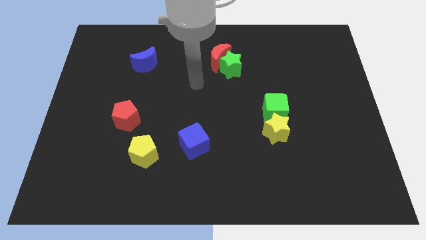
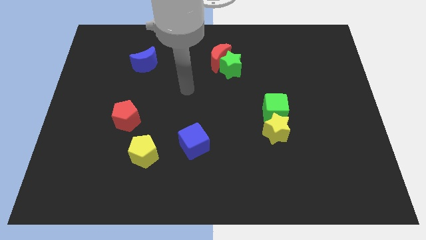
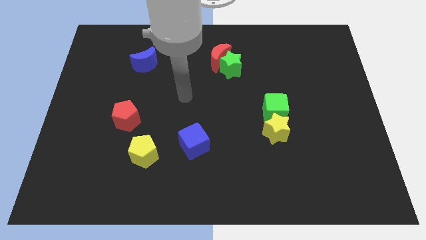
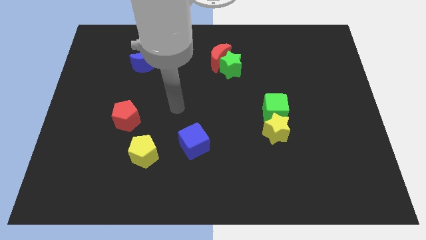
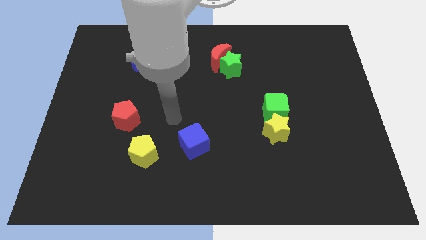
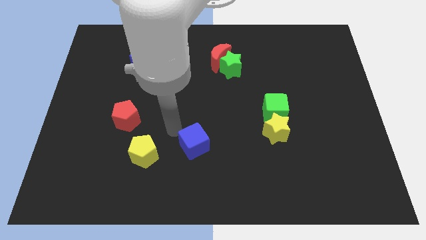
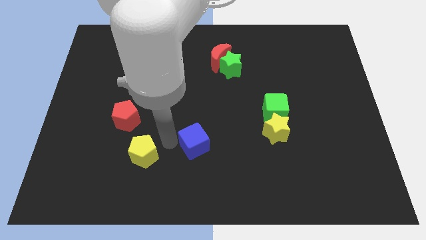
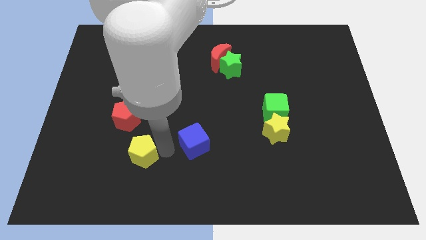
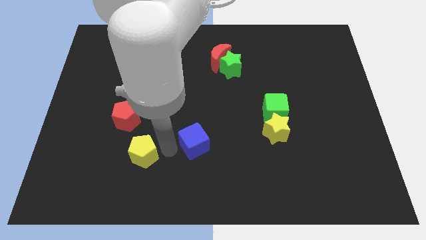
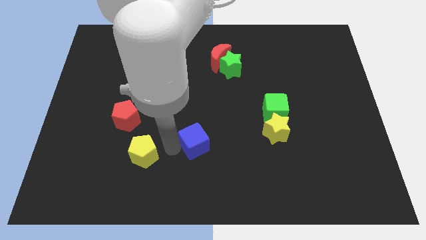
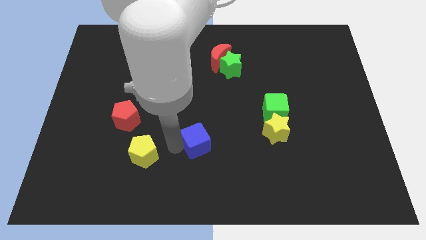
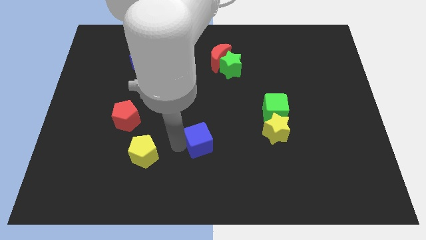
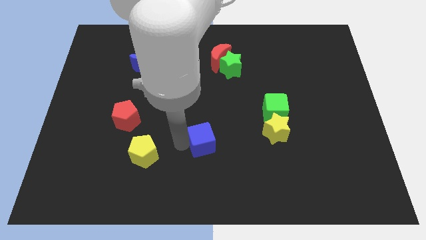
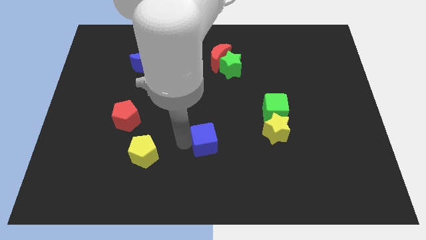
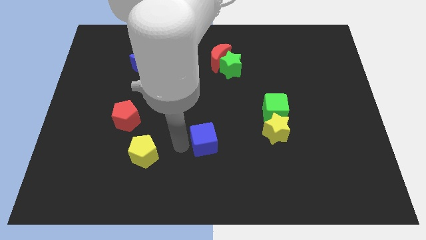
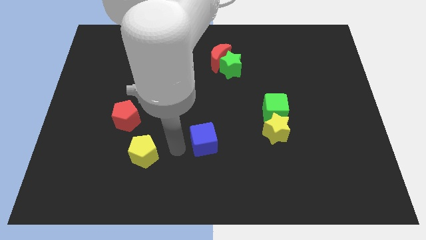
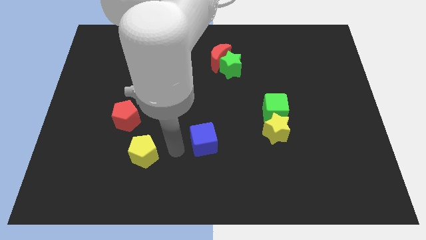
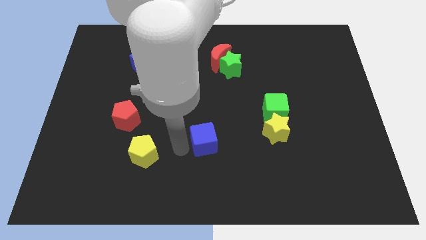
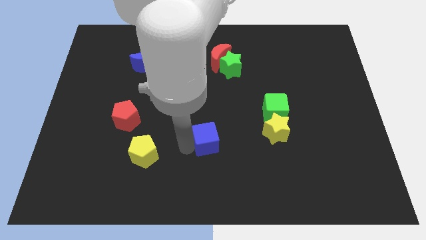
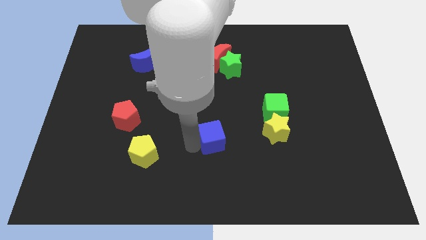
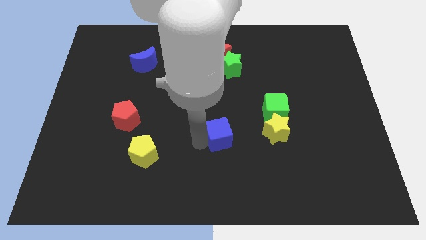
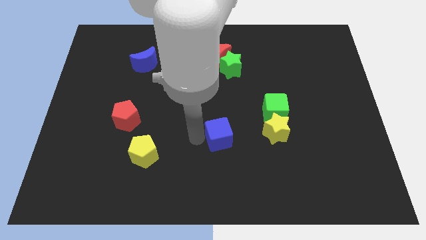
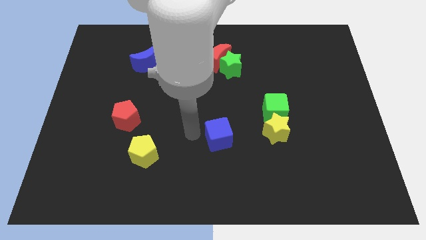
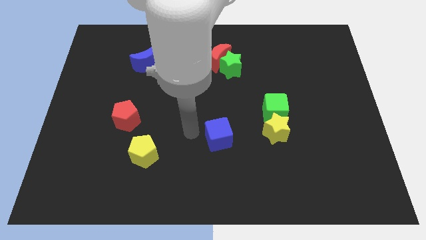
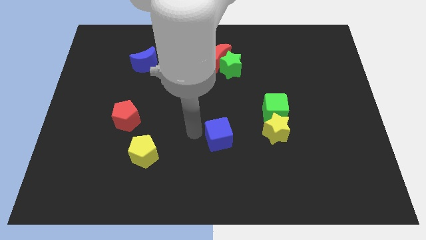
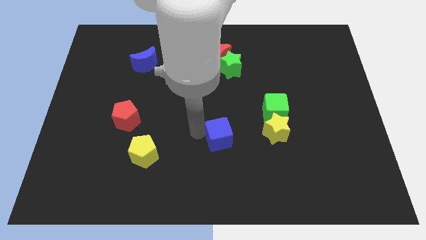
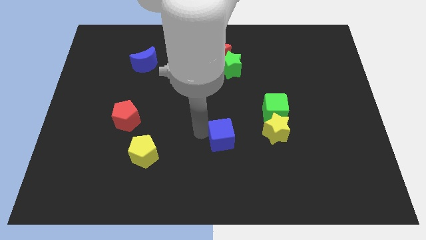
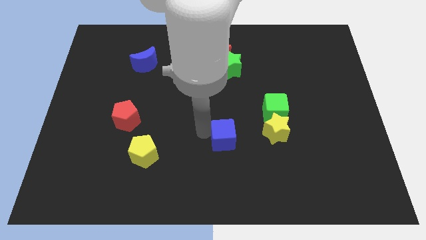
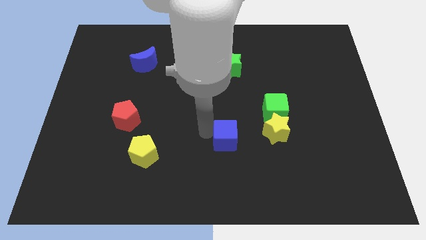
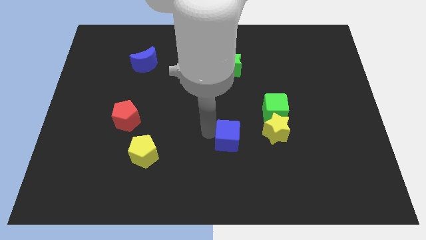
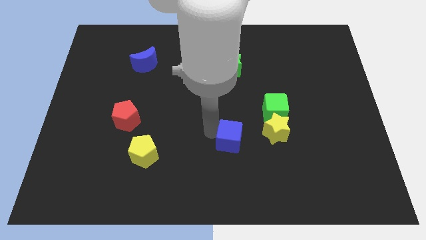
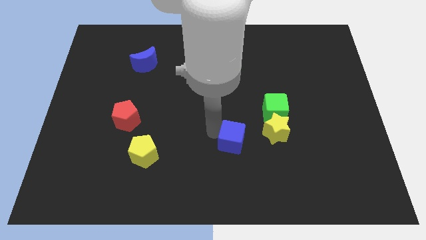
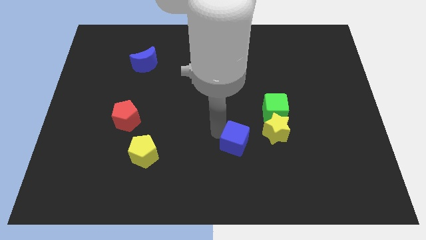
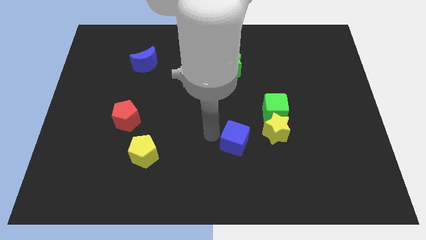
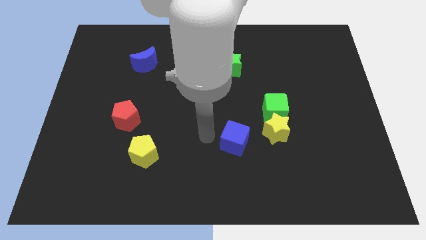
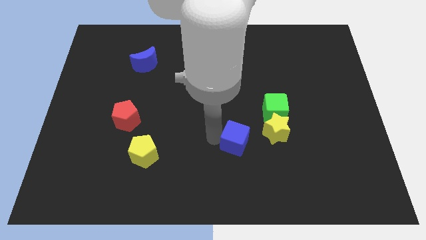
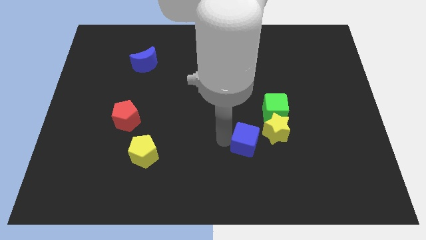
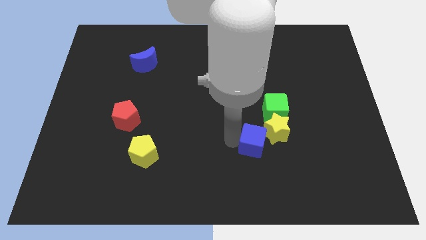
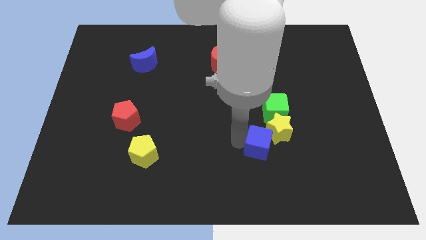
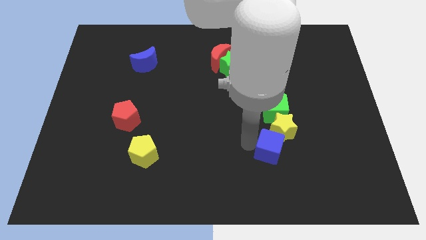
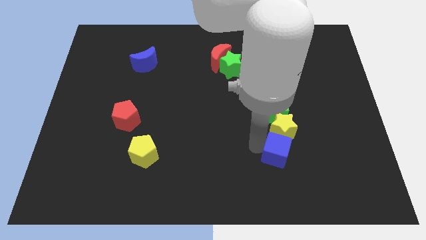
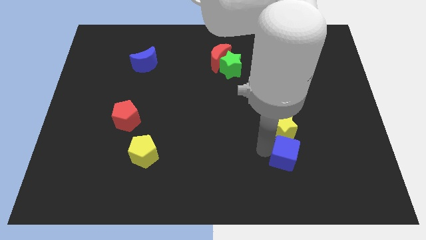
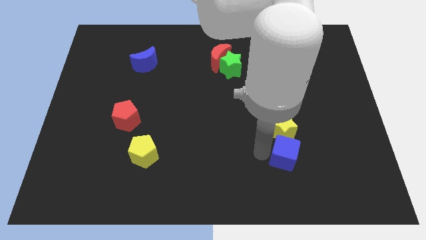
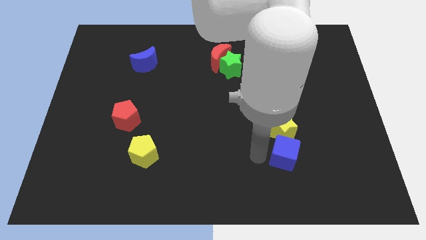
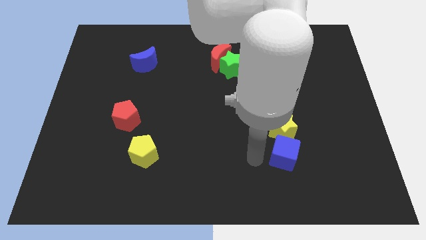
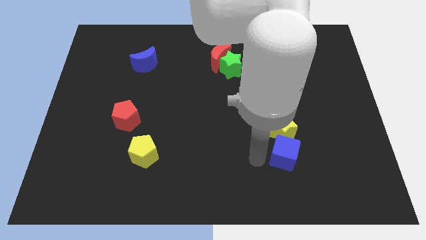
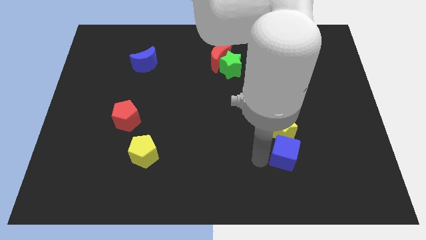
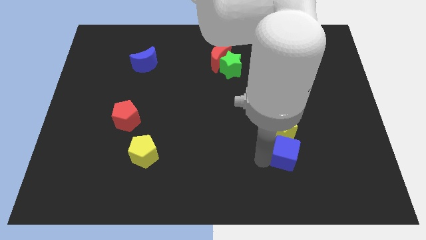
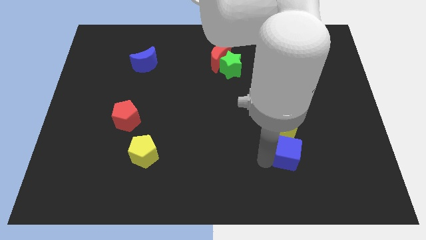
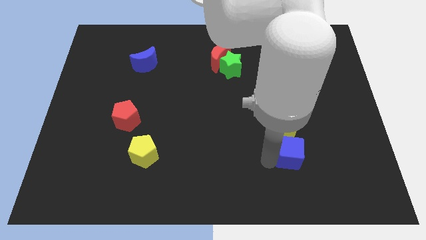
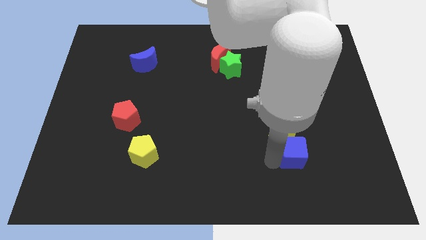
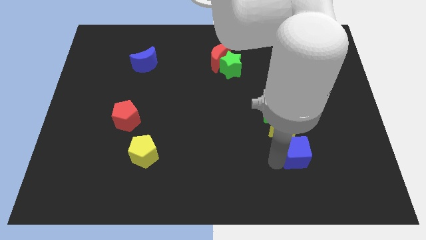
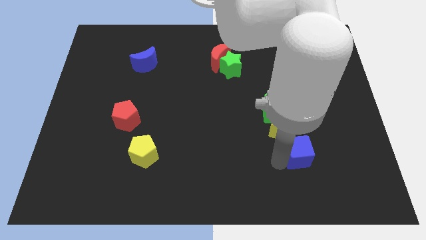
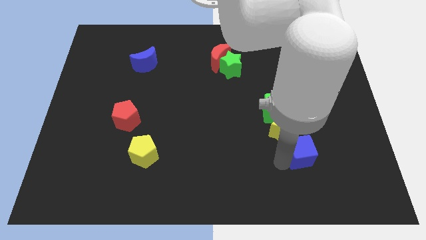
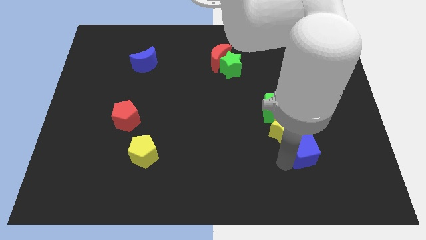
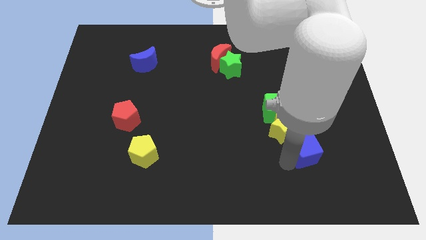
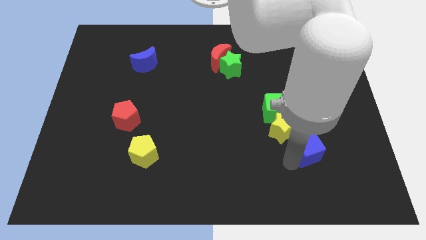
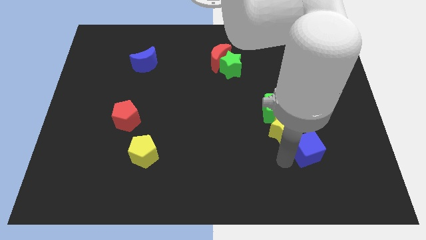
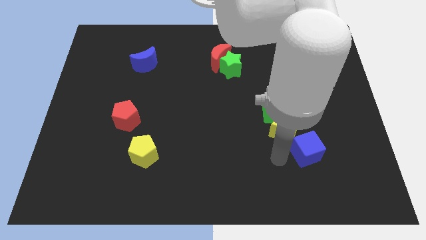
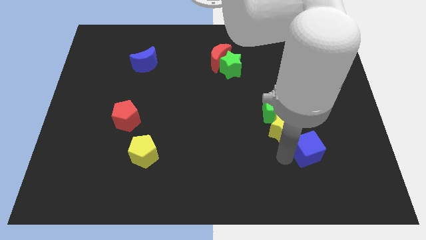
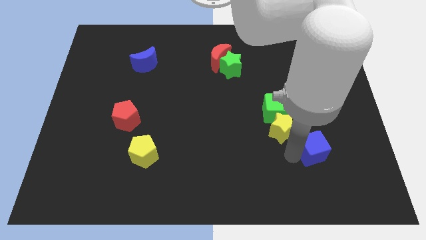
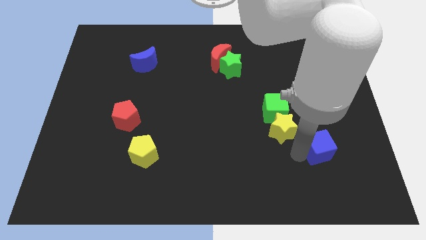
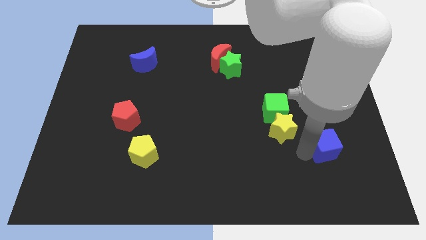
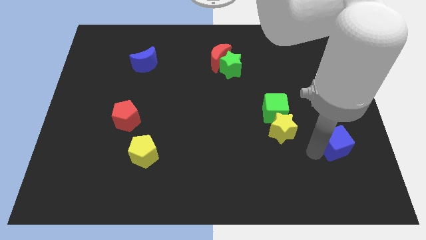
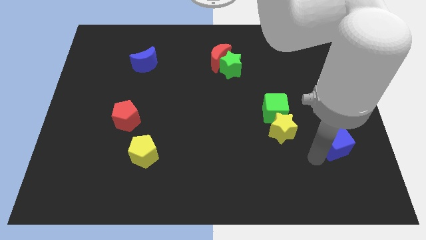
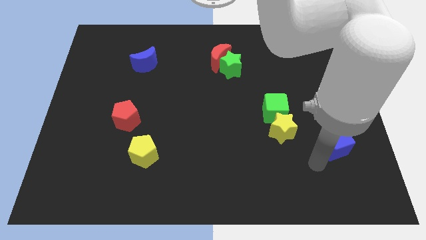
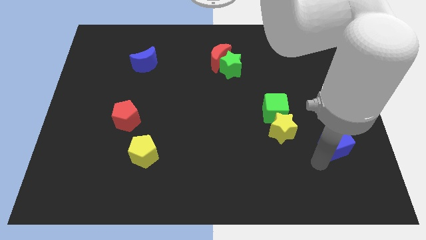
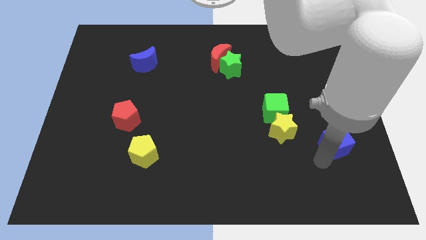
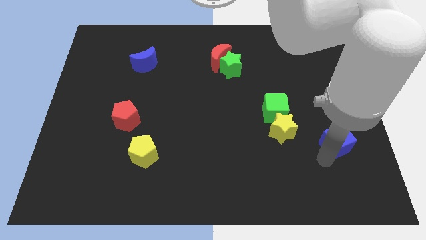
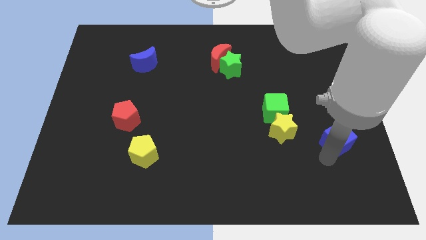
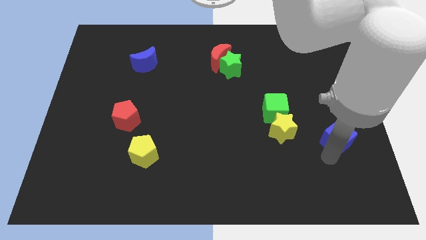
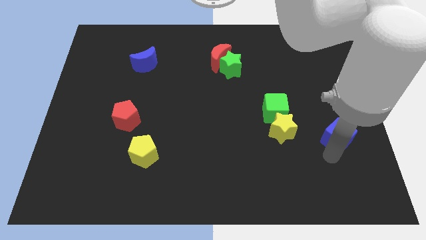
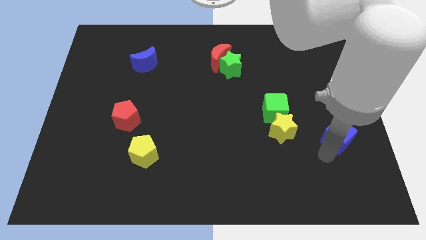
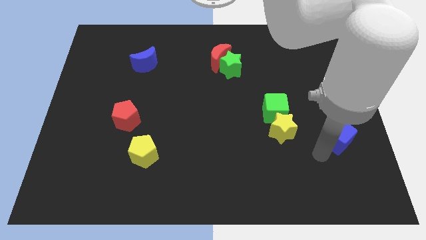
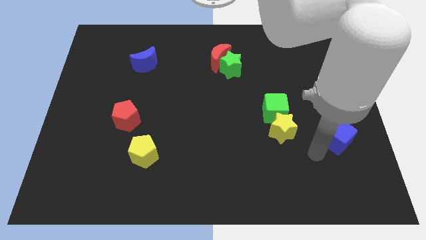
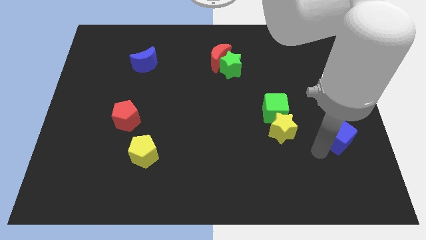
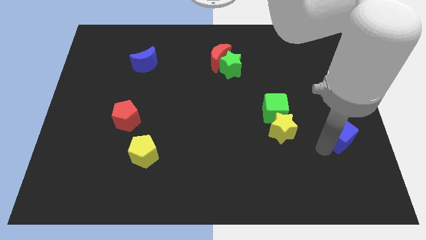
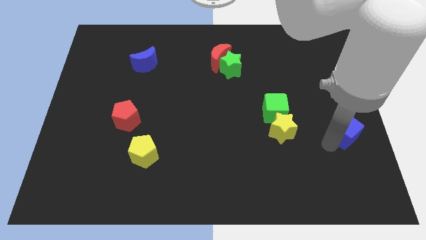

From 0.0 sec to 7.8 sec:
put the blue cube to the right side of the board
